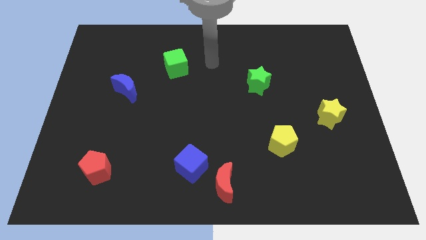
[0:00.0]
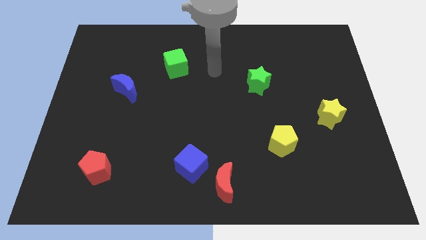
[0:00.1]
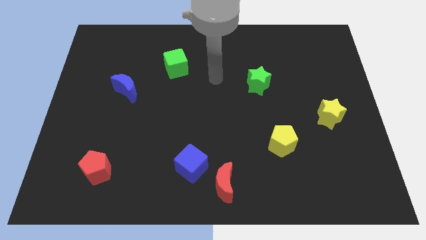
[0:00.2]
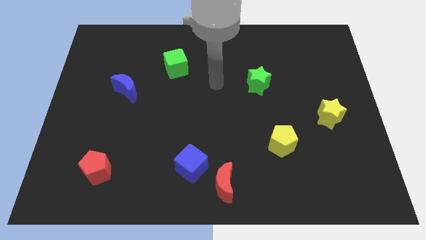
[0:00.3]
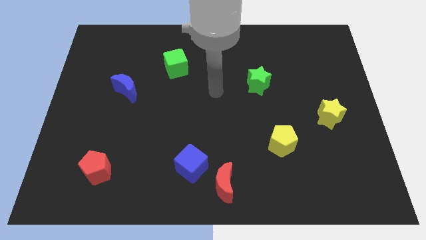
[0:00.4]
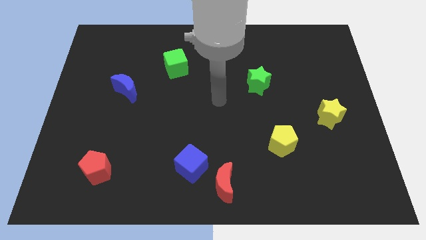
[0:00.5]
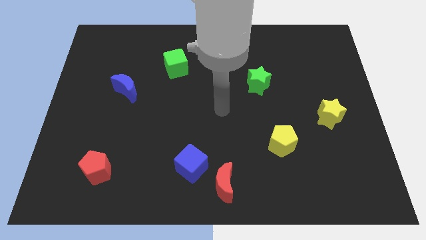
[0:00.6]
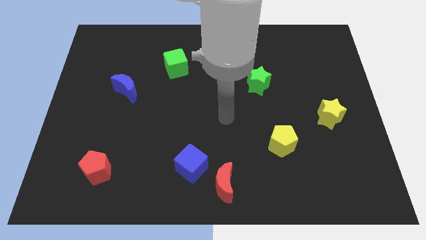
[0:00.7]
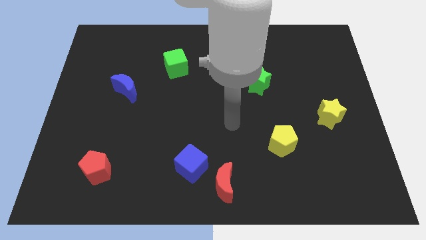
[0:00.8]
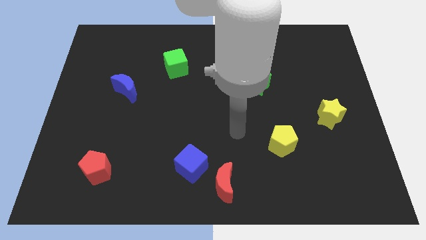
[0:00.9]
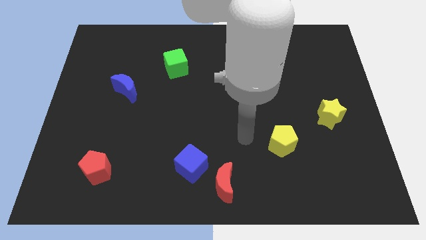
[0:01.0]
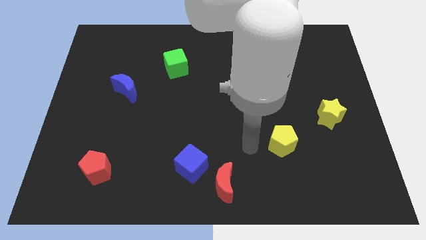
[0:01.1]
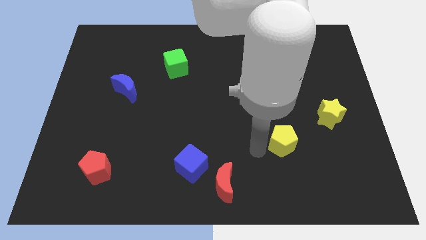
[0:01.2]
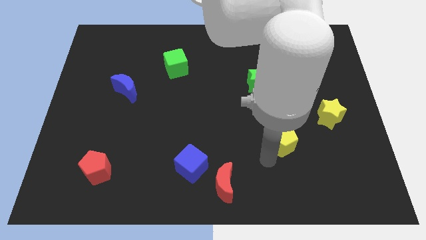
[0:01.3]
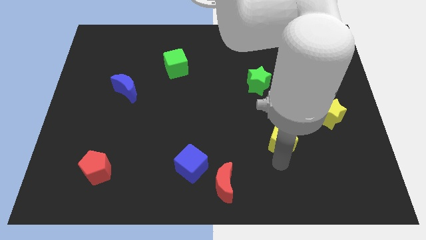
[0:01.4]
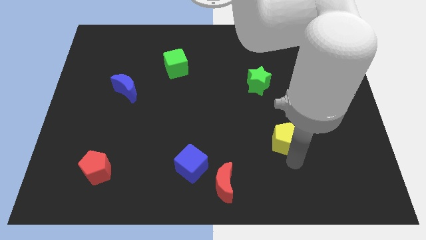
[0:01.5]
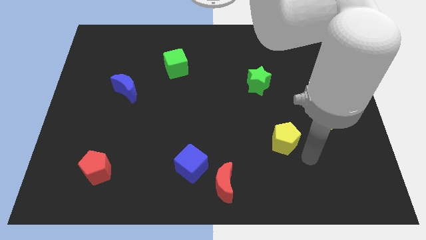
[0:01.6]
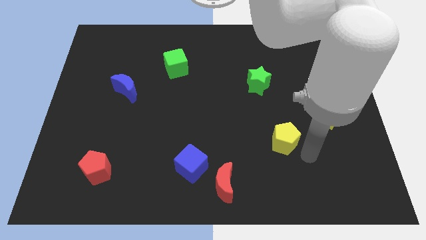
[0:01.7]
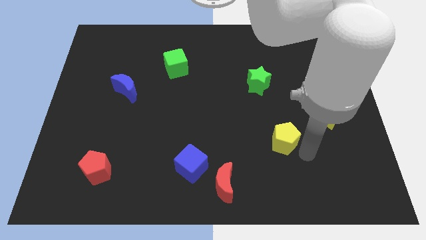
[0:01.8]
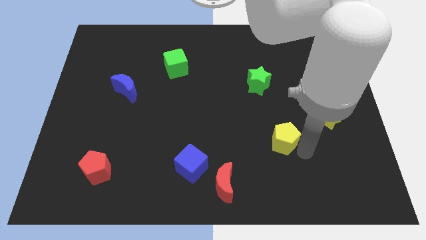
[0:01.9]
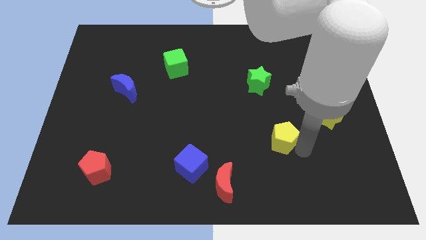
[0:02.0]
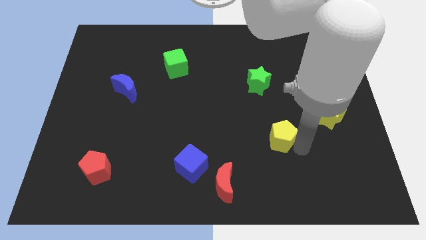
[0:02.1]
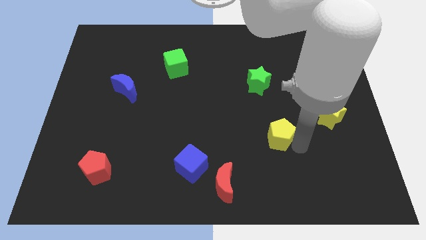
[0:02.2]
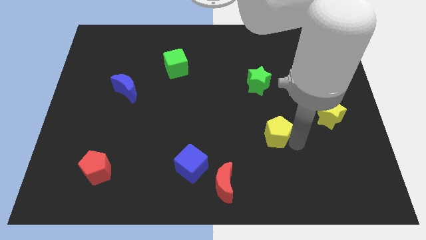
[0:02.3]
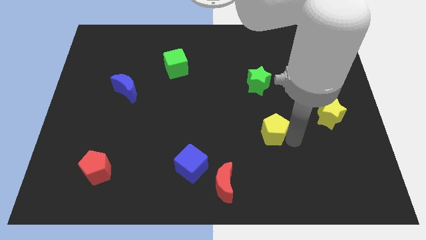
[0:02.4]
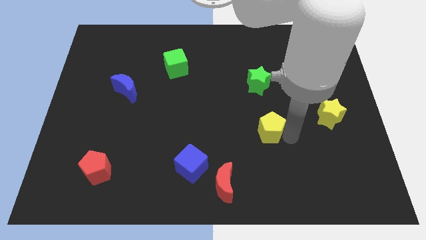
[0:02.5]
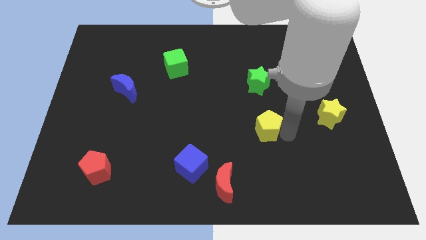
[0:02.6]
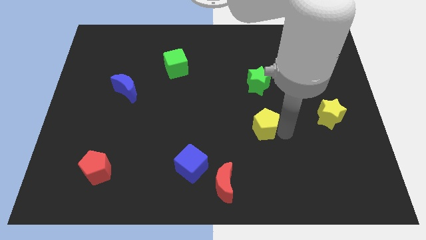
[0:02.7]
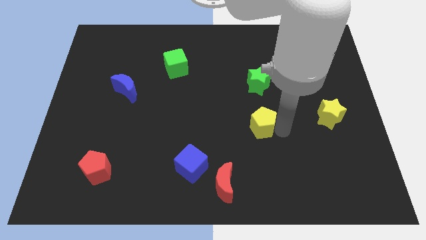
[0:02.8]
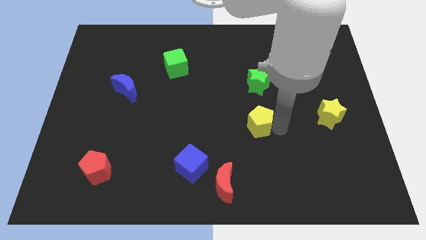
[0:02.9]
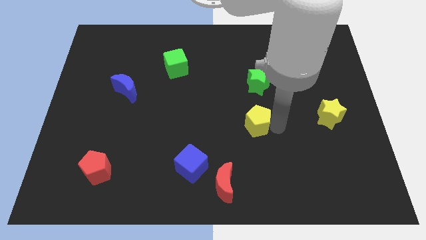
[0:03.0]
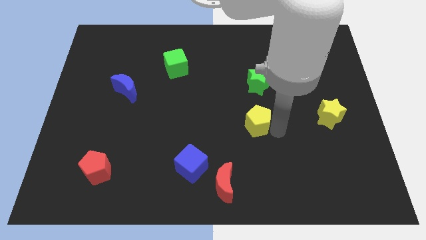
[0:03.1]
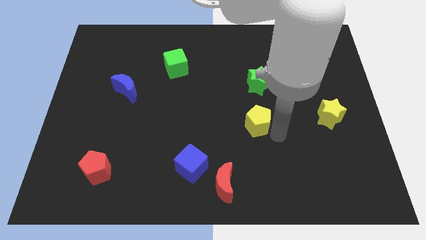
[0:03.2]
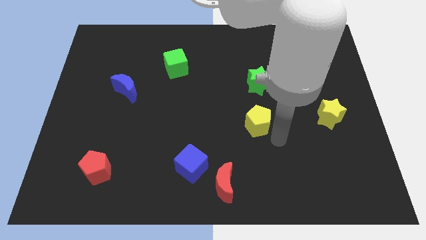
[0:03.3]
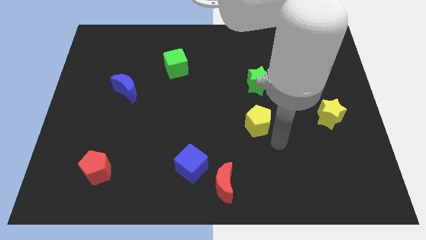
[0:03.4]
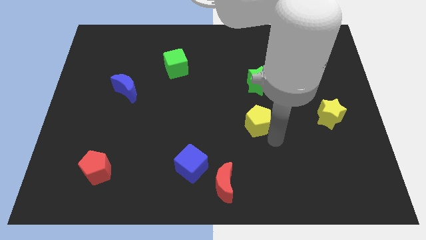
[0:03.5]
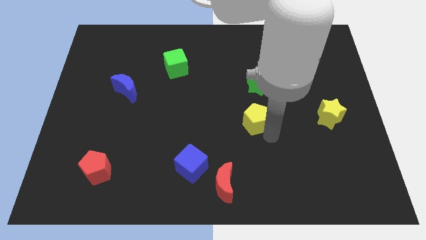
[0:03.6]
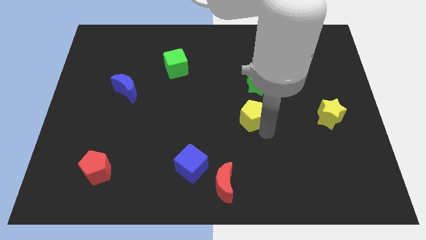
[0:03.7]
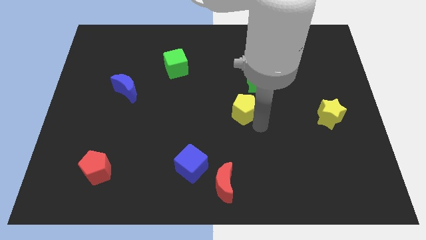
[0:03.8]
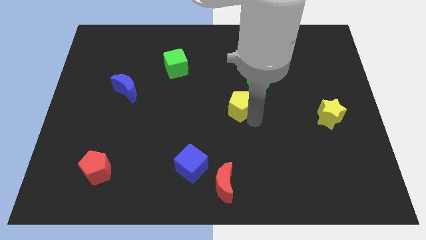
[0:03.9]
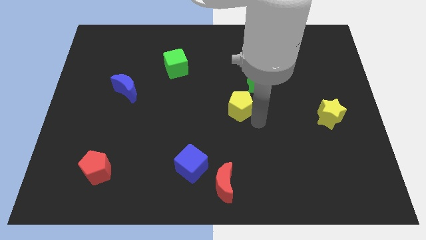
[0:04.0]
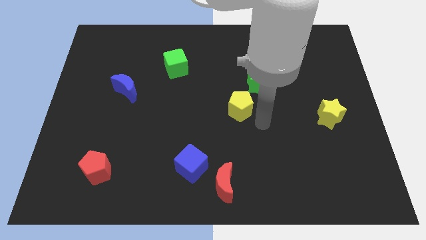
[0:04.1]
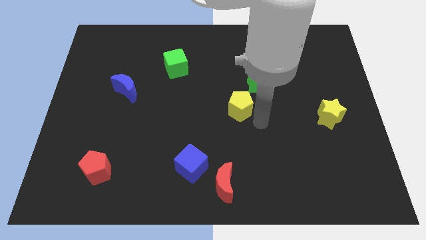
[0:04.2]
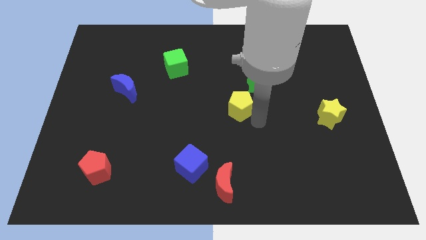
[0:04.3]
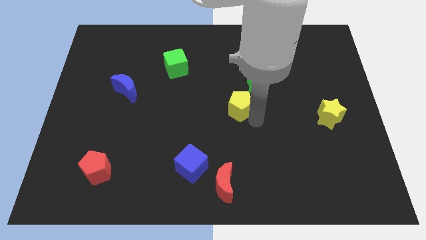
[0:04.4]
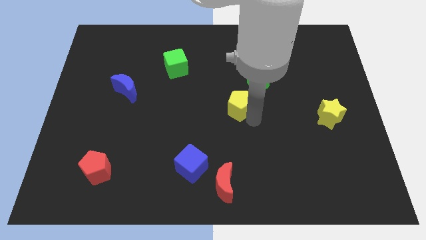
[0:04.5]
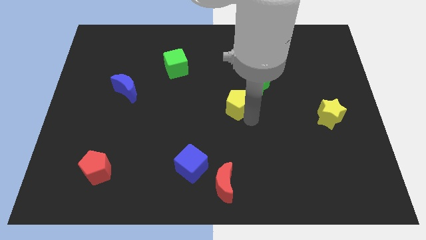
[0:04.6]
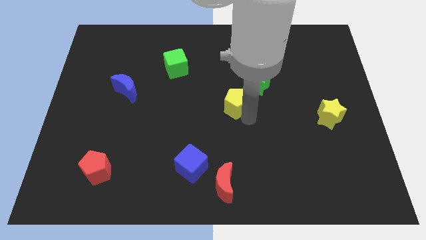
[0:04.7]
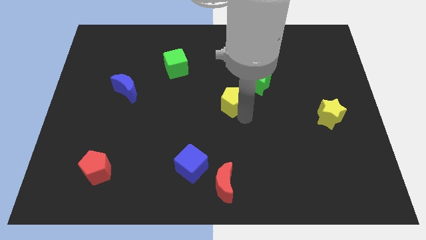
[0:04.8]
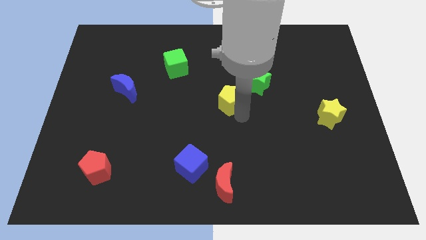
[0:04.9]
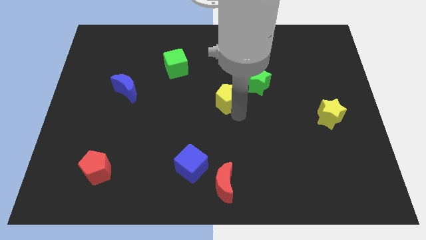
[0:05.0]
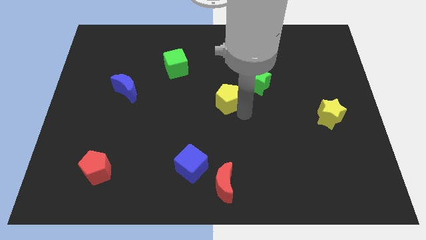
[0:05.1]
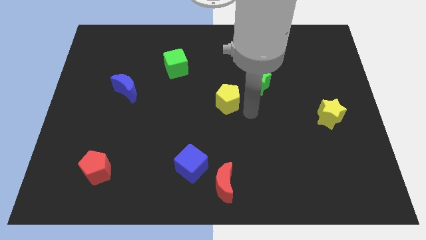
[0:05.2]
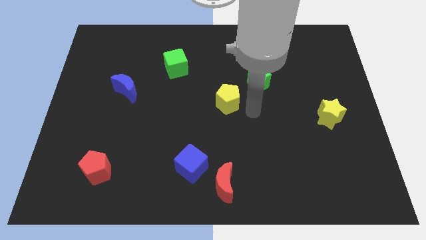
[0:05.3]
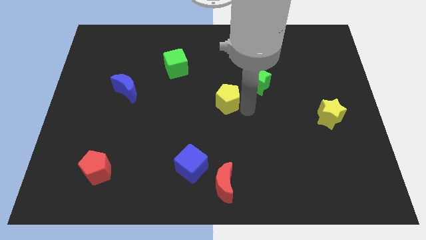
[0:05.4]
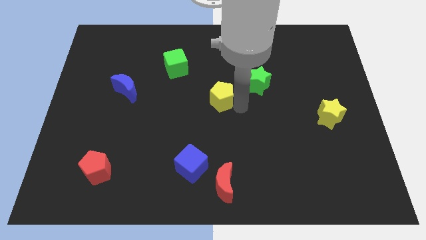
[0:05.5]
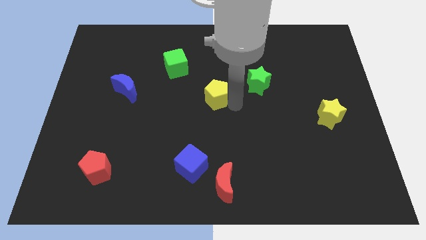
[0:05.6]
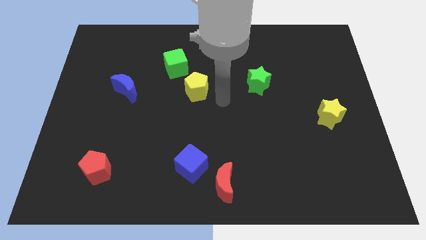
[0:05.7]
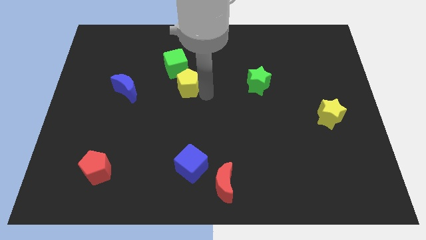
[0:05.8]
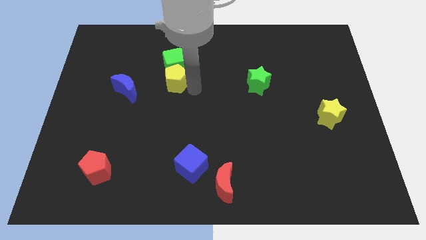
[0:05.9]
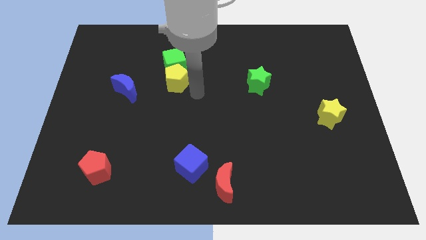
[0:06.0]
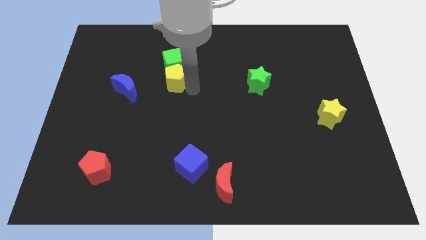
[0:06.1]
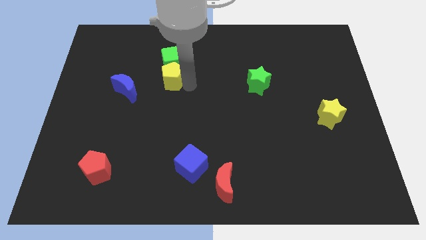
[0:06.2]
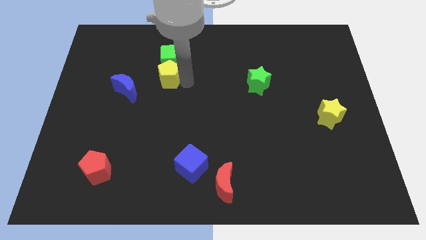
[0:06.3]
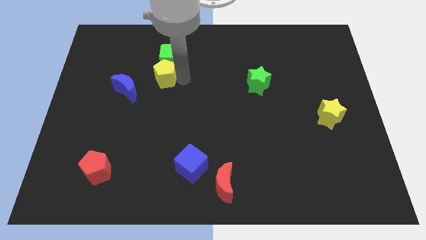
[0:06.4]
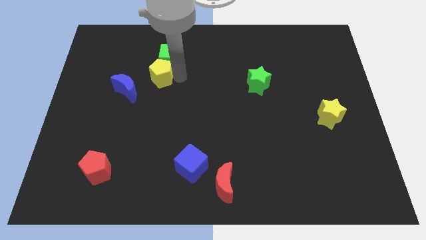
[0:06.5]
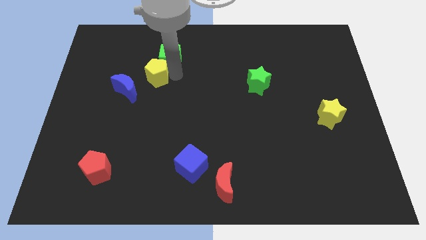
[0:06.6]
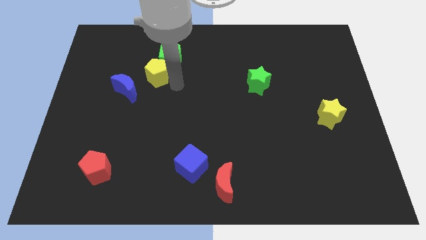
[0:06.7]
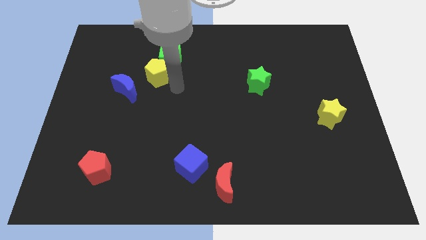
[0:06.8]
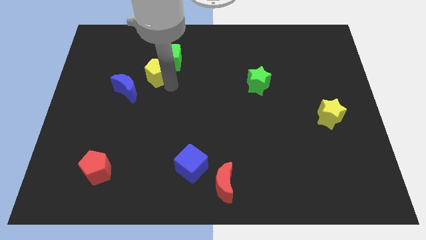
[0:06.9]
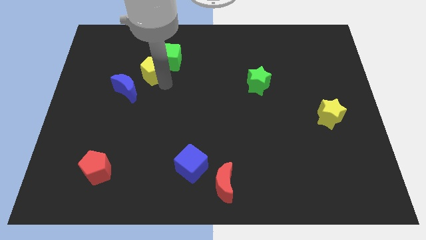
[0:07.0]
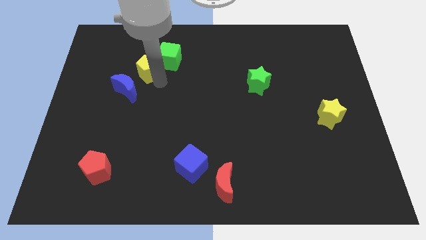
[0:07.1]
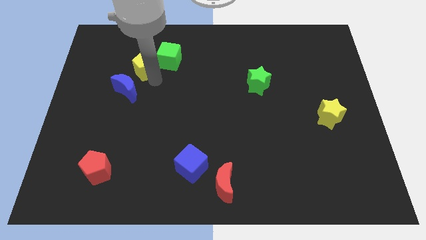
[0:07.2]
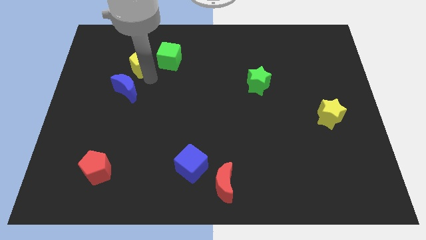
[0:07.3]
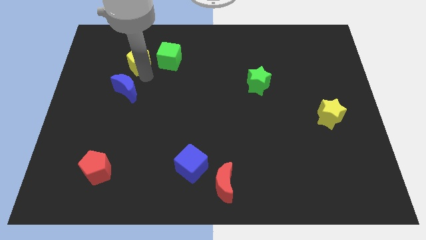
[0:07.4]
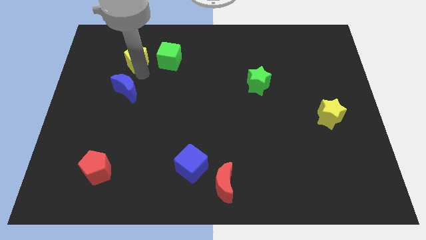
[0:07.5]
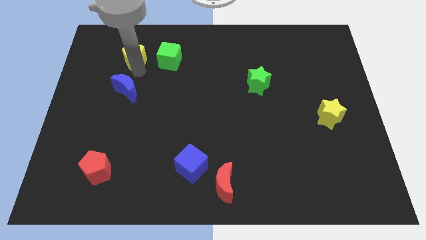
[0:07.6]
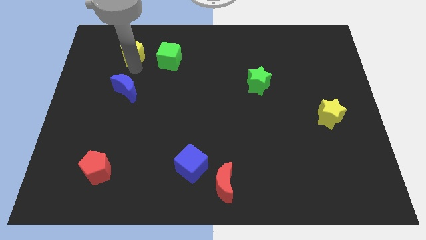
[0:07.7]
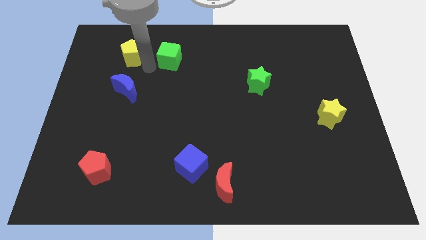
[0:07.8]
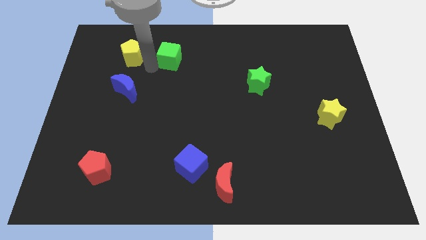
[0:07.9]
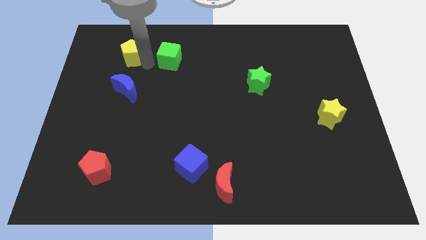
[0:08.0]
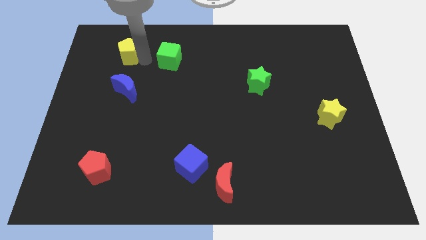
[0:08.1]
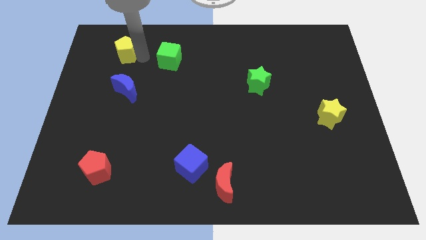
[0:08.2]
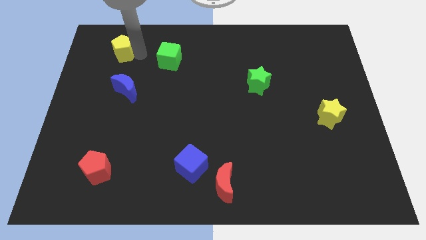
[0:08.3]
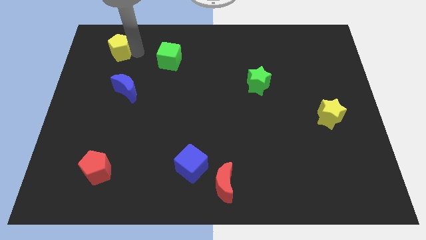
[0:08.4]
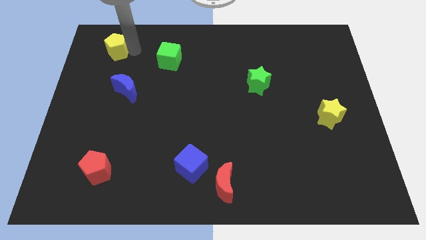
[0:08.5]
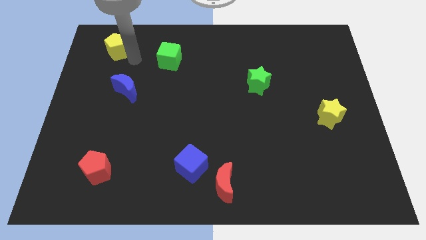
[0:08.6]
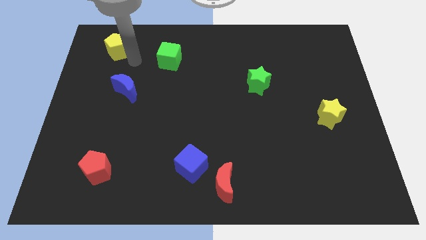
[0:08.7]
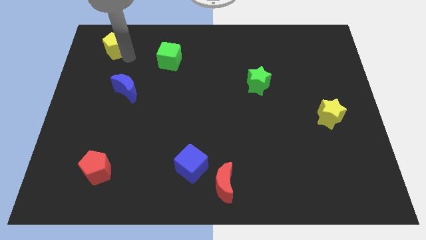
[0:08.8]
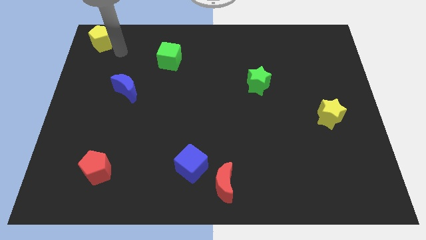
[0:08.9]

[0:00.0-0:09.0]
move the yellow pentagon to the top left
